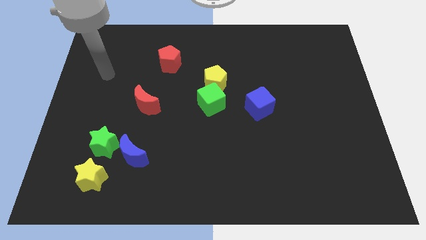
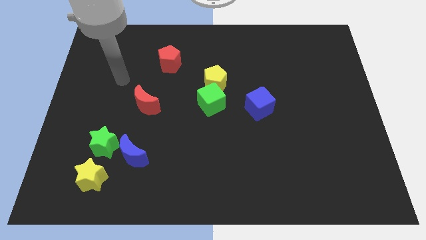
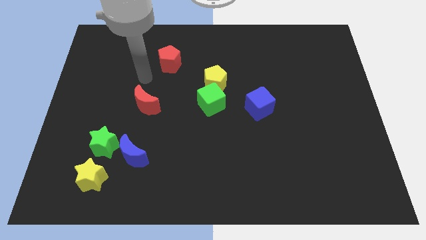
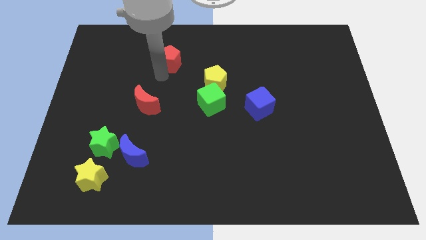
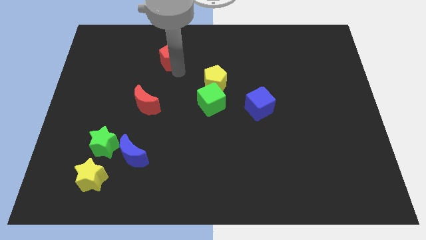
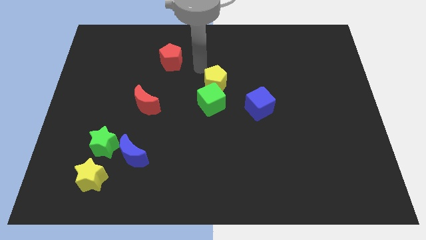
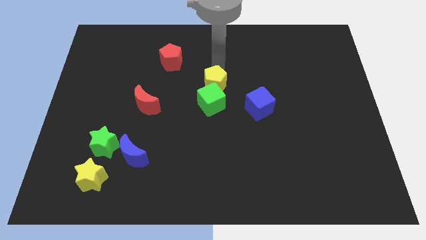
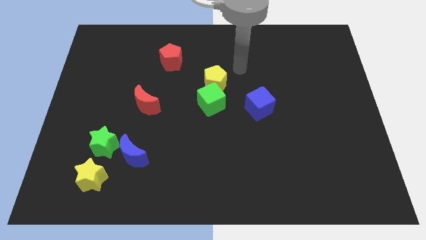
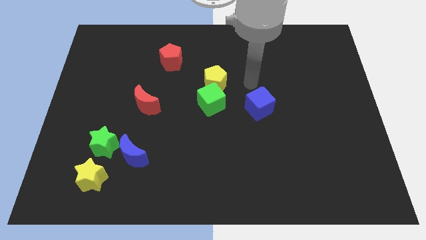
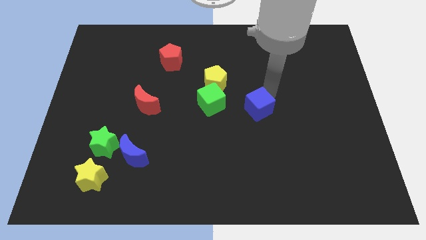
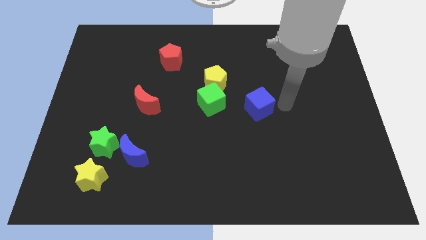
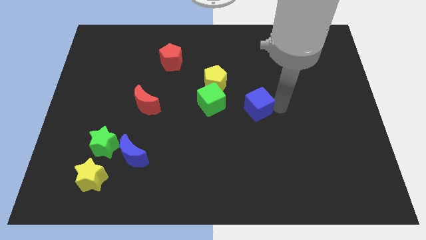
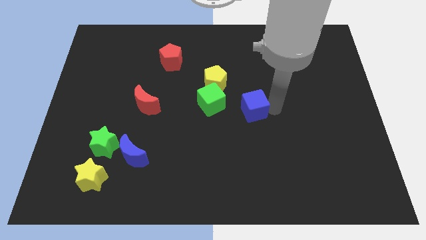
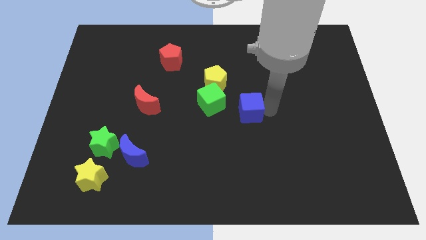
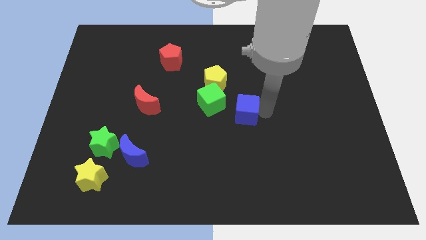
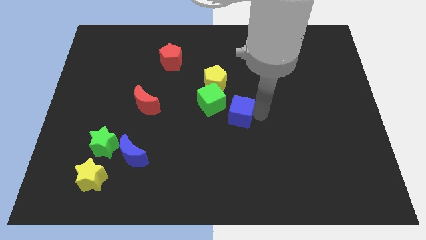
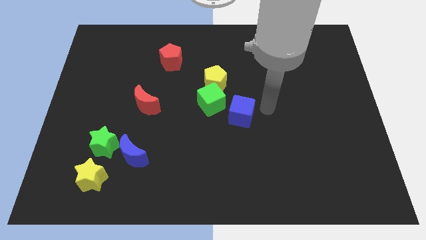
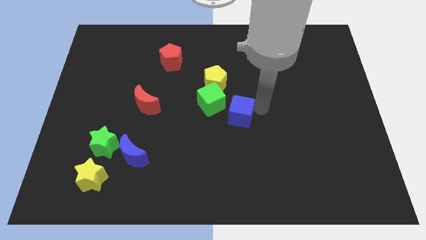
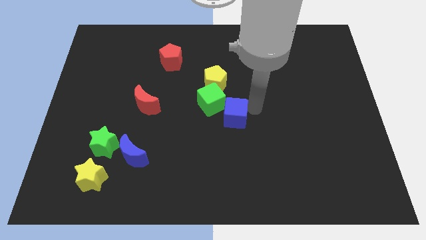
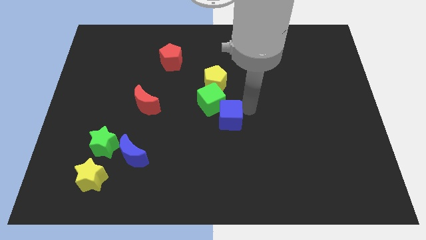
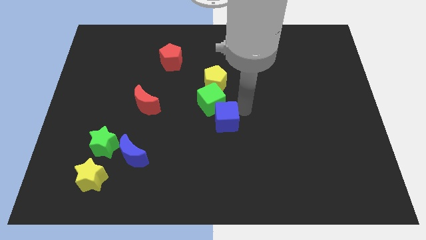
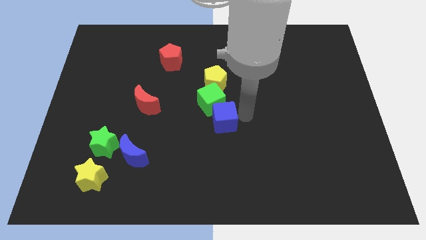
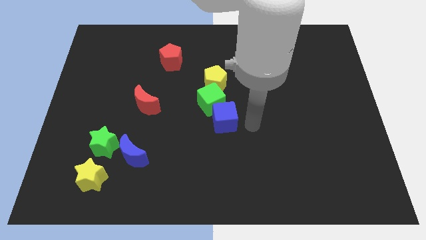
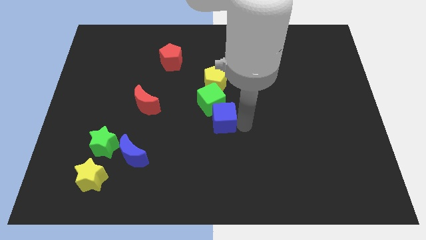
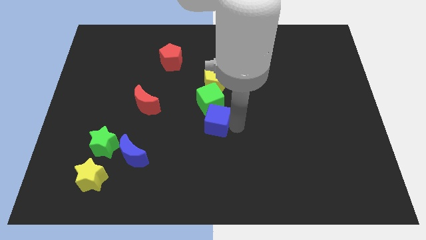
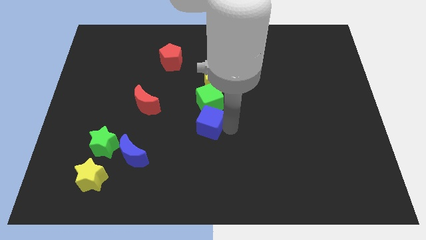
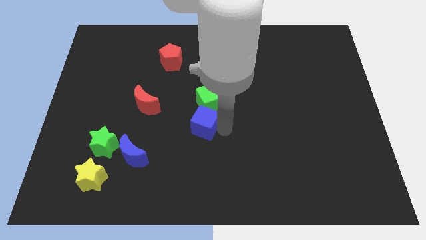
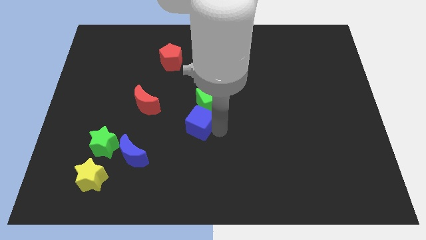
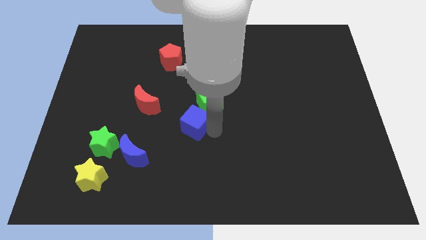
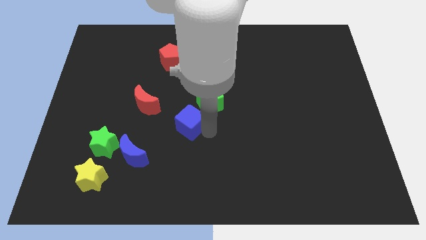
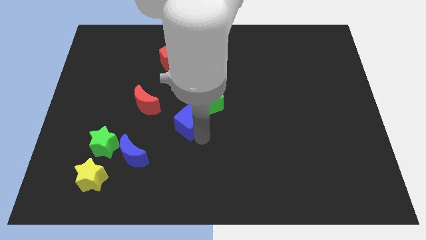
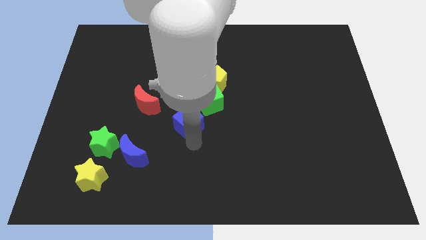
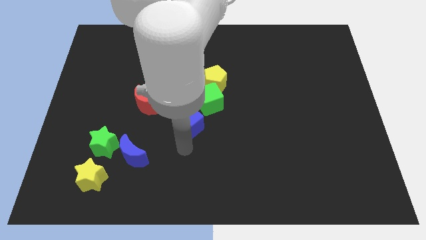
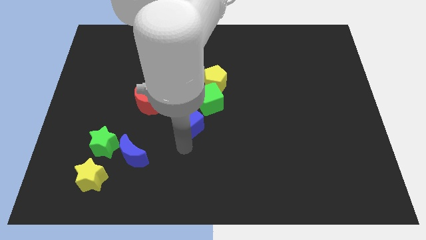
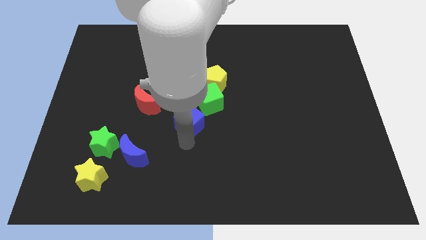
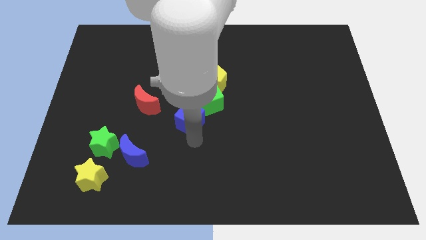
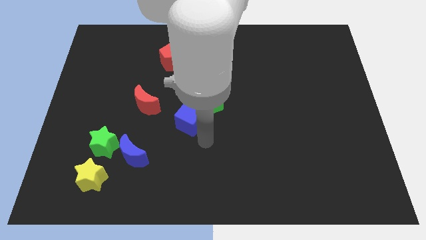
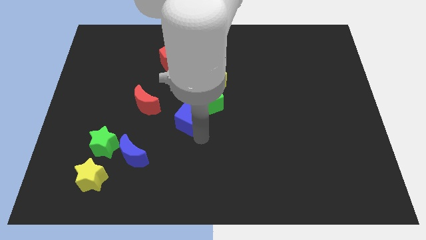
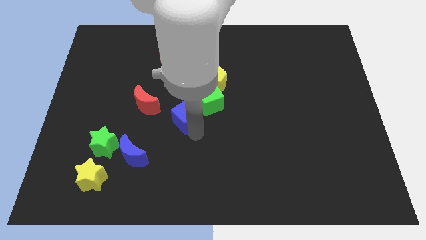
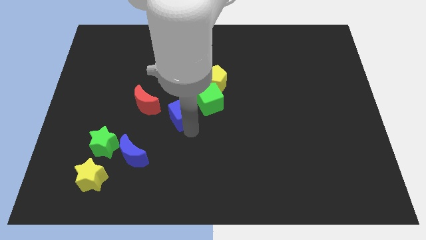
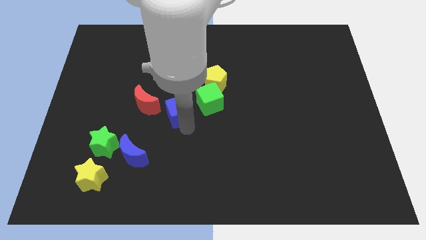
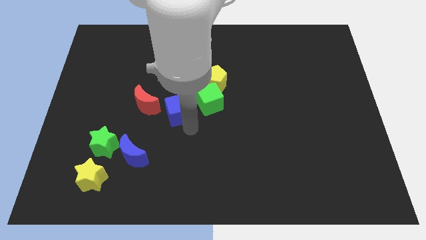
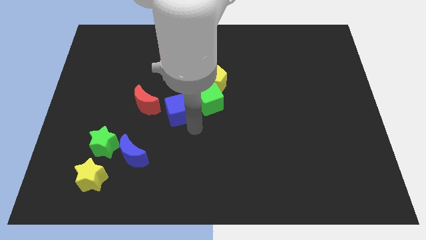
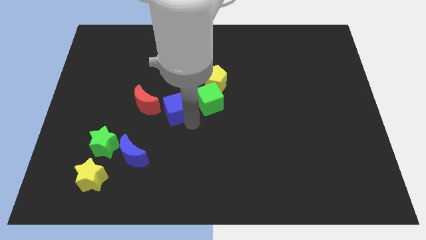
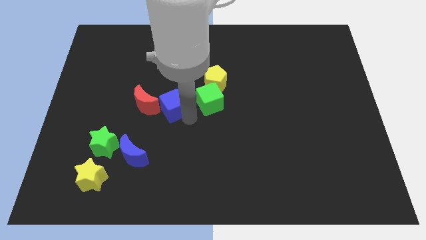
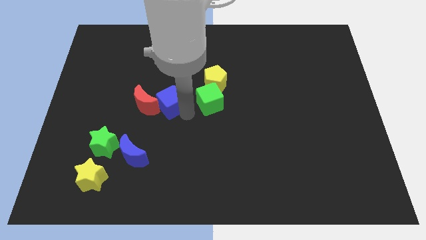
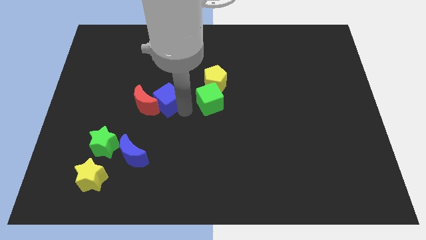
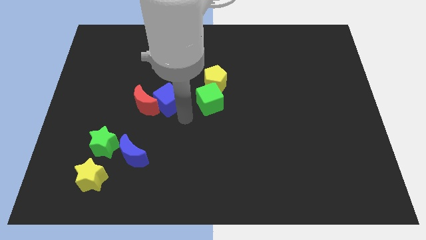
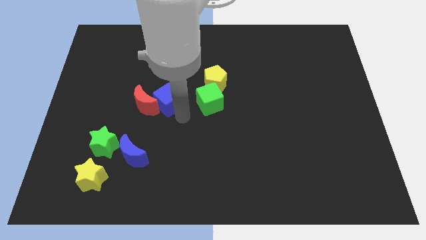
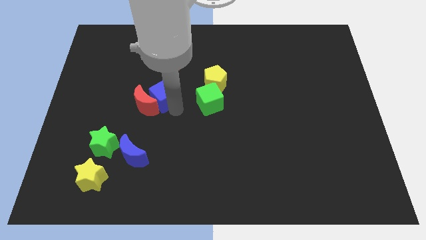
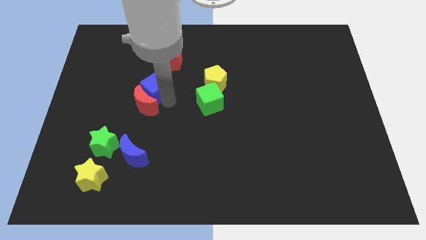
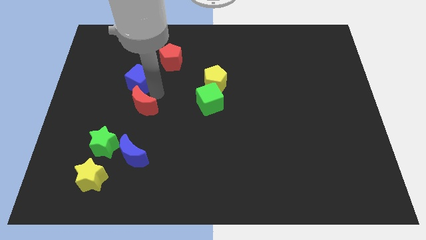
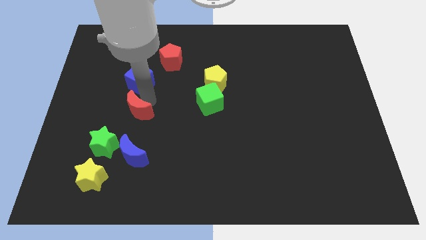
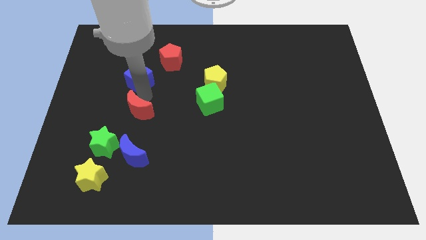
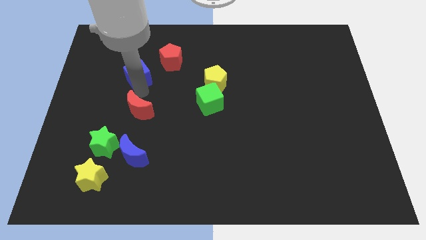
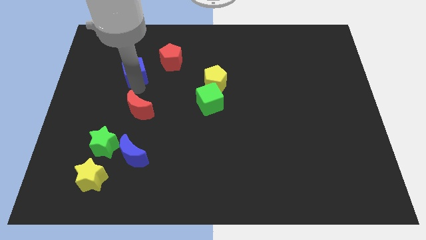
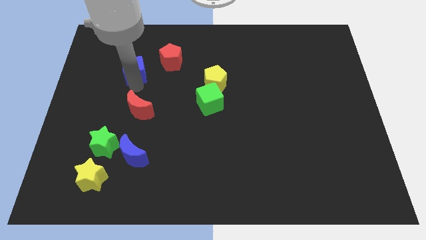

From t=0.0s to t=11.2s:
put the blue cube just left of the red pentagon

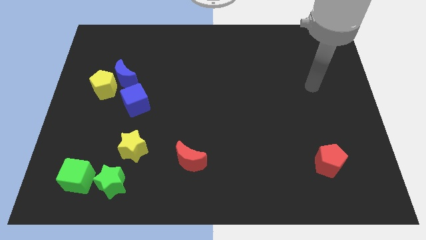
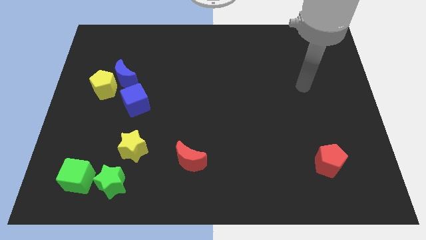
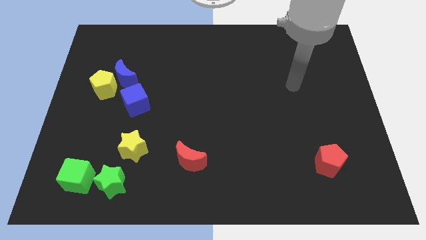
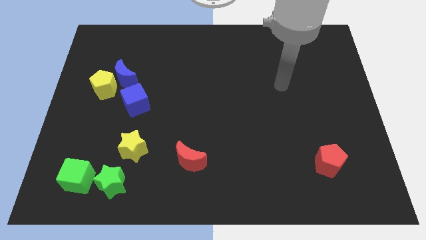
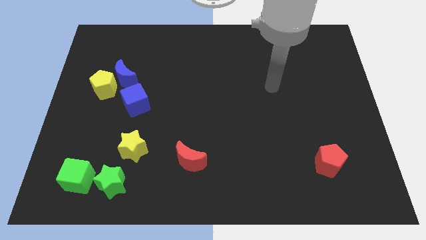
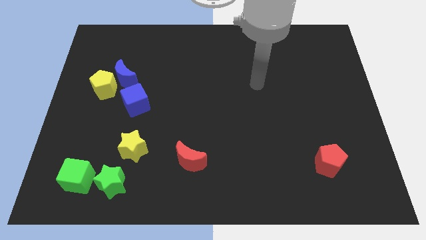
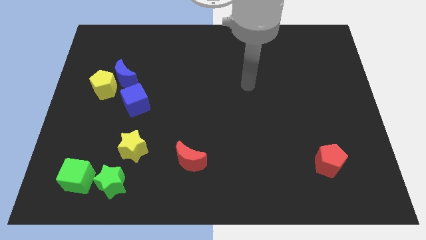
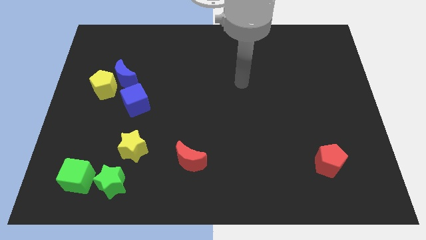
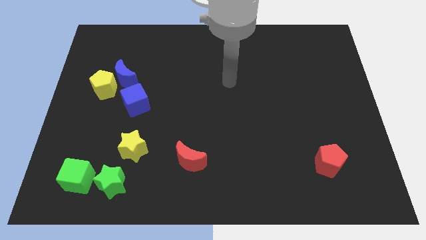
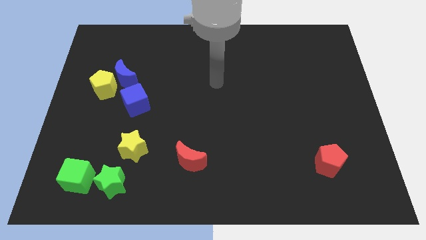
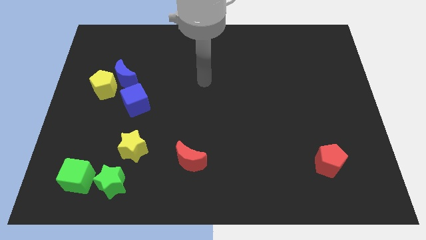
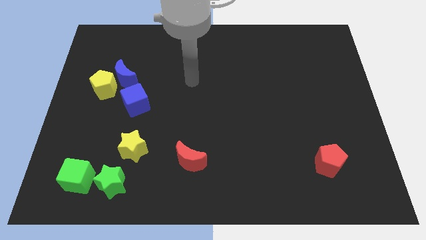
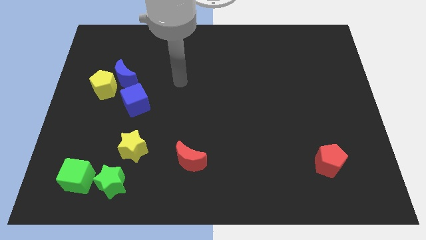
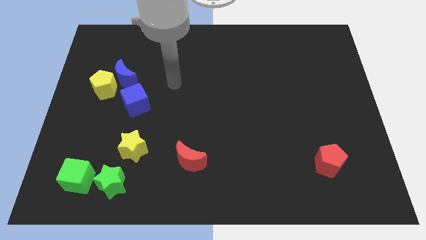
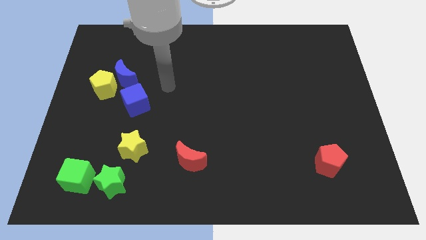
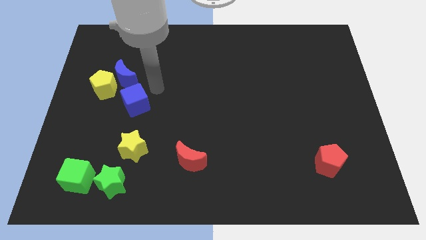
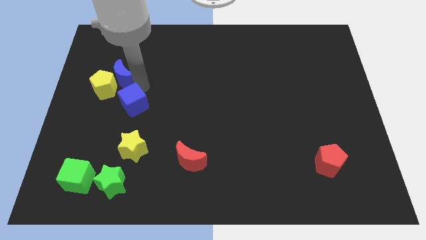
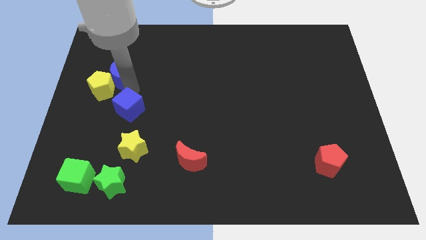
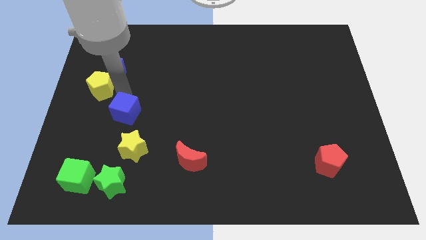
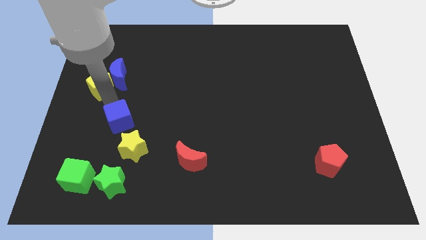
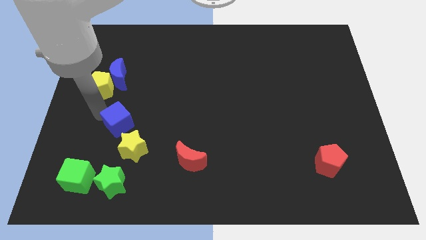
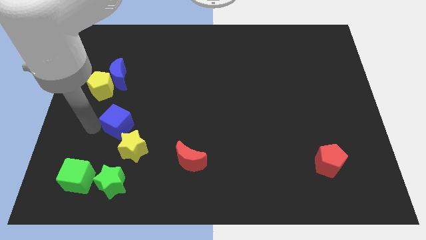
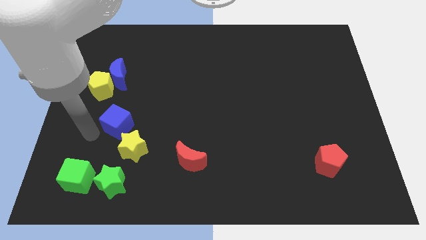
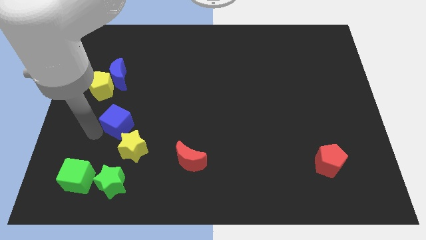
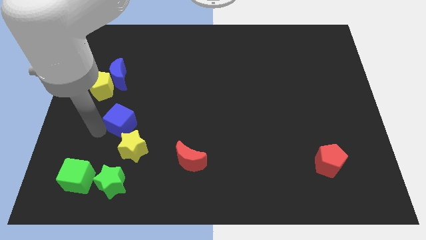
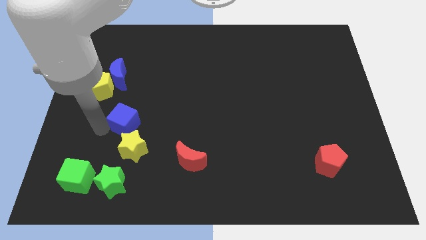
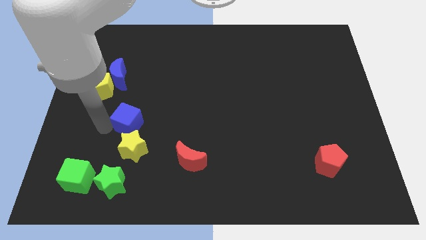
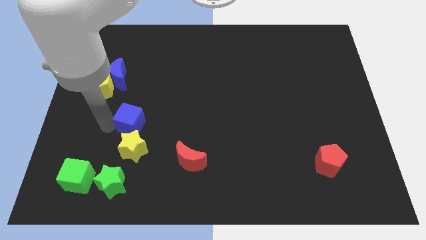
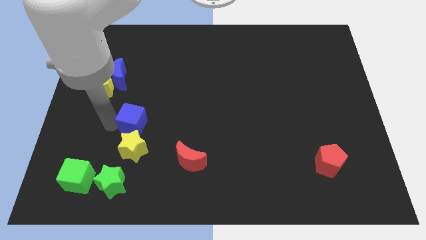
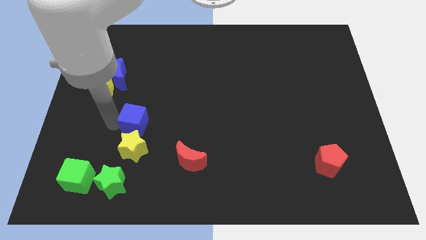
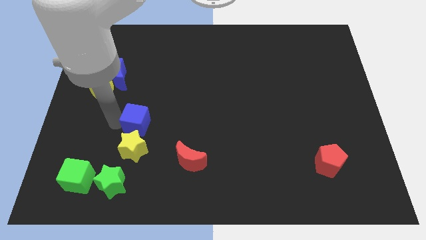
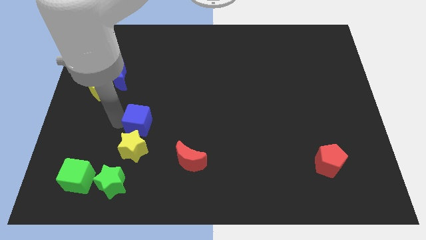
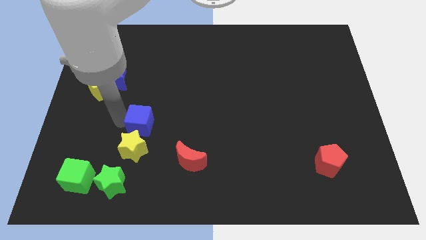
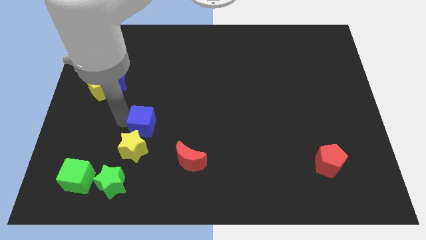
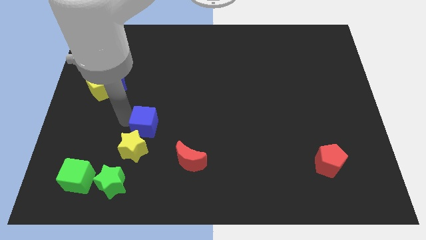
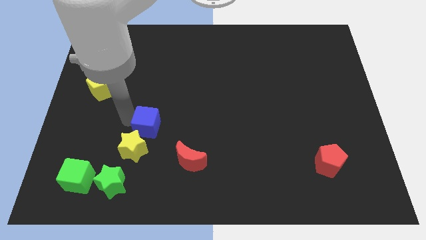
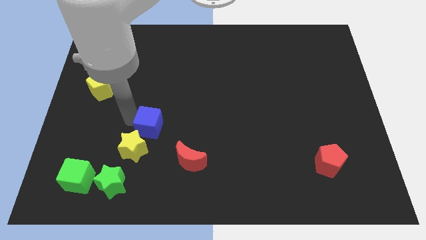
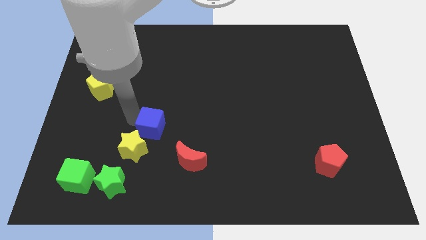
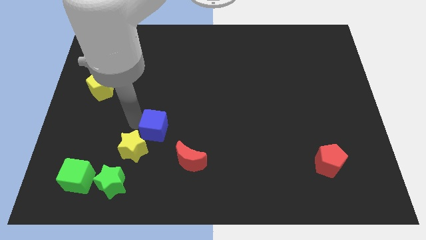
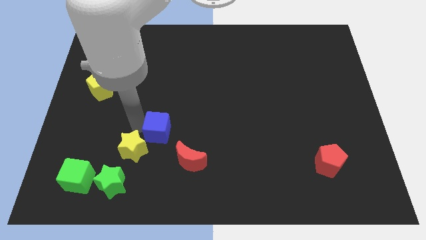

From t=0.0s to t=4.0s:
put the blue cube right of the yellow star
